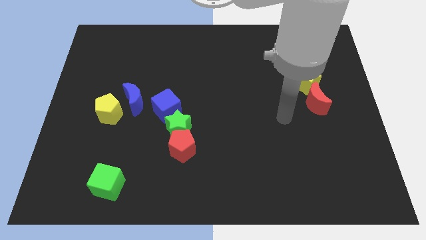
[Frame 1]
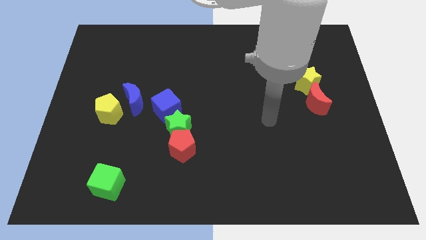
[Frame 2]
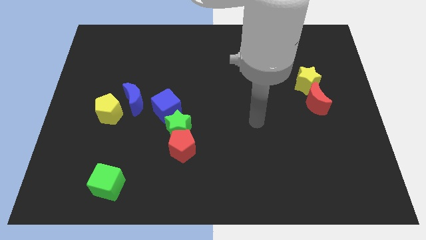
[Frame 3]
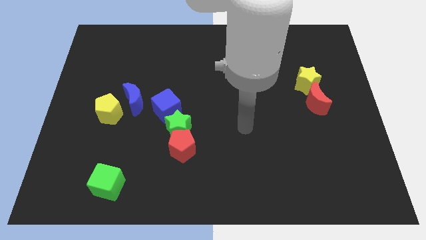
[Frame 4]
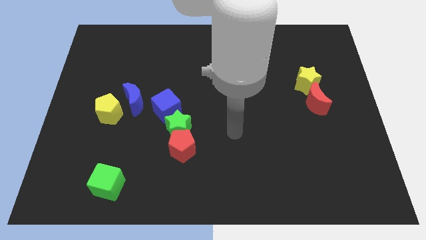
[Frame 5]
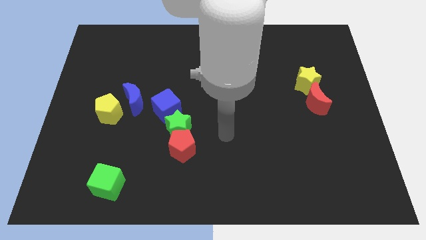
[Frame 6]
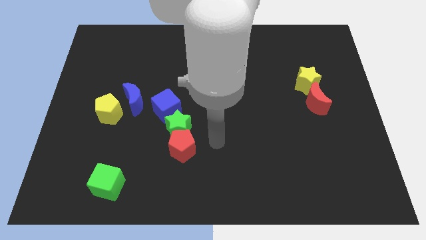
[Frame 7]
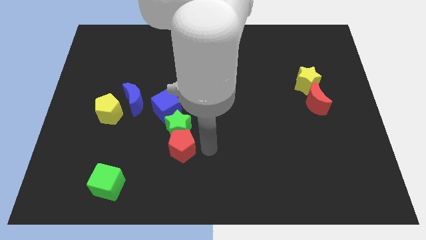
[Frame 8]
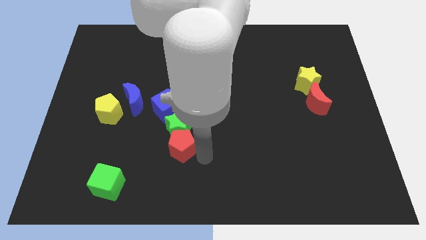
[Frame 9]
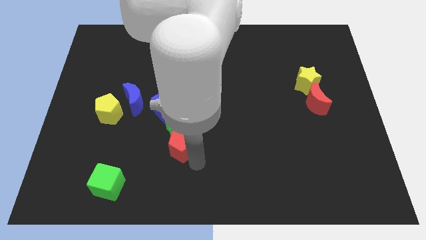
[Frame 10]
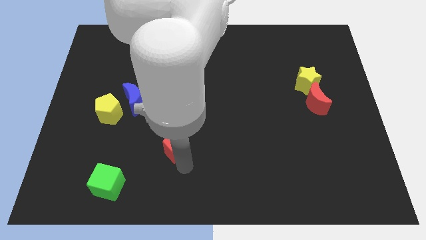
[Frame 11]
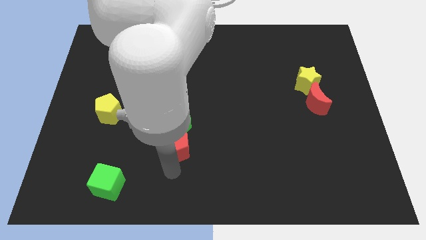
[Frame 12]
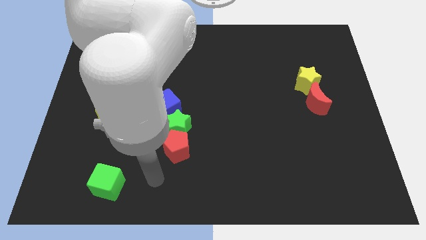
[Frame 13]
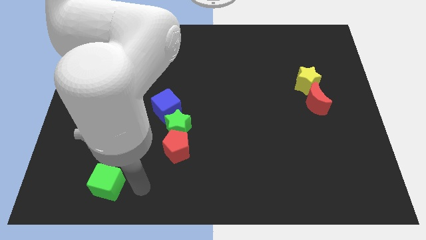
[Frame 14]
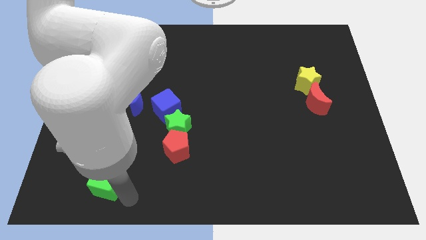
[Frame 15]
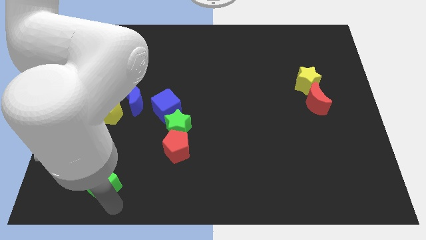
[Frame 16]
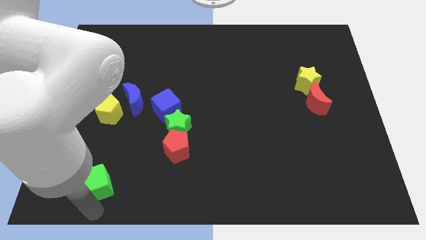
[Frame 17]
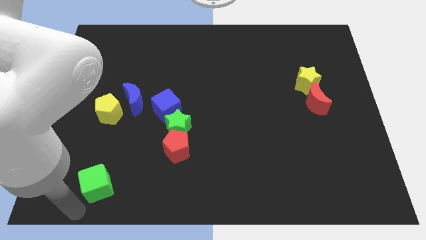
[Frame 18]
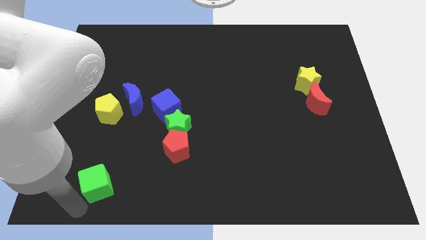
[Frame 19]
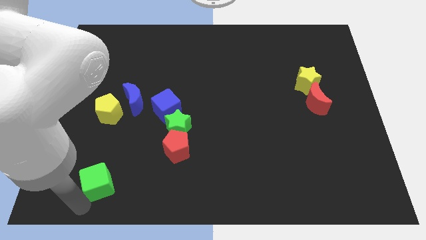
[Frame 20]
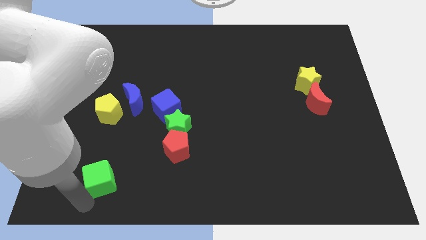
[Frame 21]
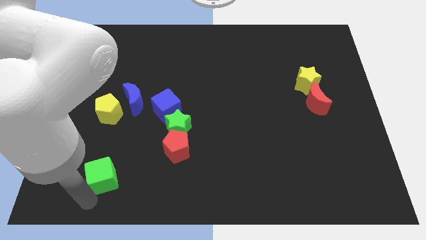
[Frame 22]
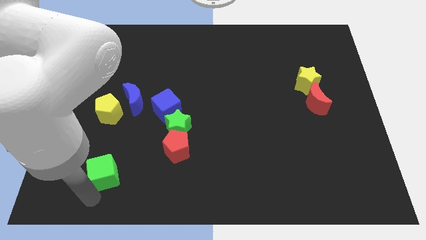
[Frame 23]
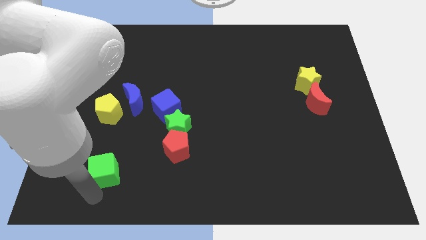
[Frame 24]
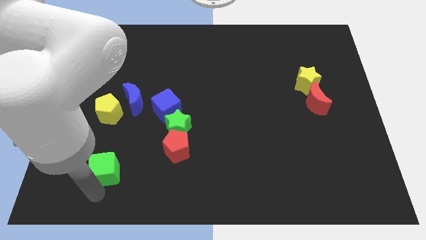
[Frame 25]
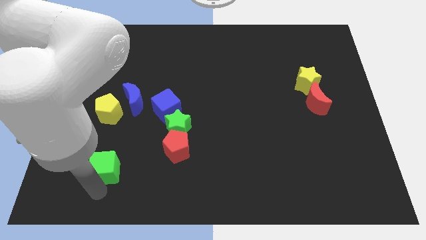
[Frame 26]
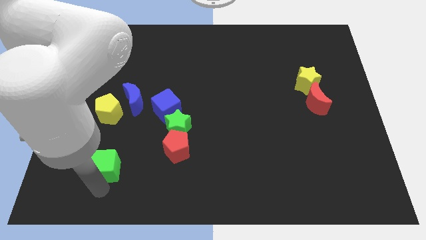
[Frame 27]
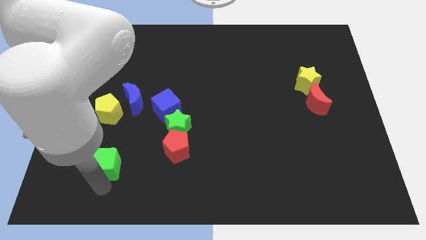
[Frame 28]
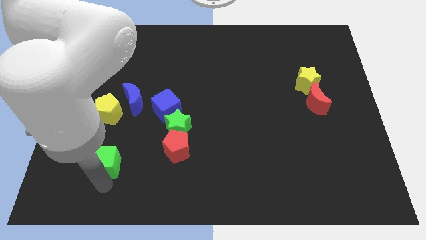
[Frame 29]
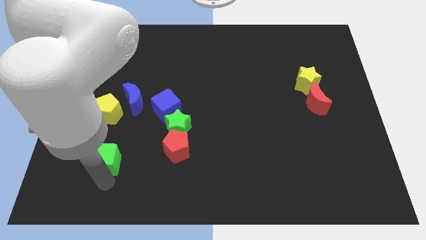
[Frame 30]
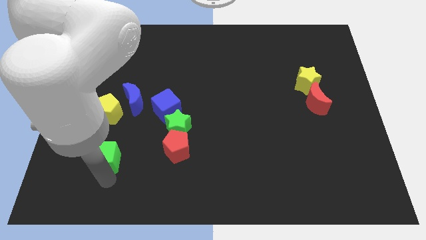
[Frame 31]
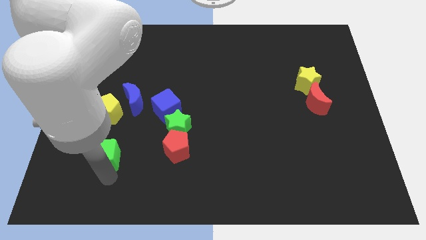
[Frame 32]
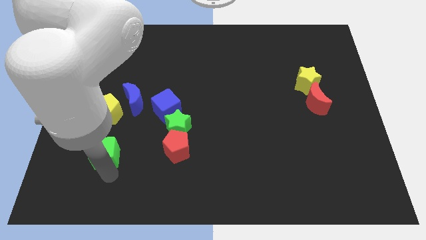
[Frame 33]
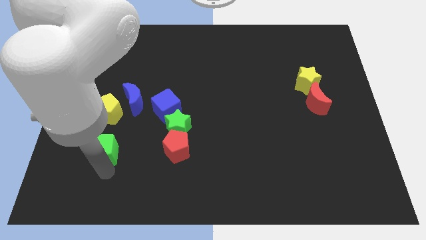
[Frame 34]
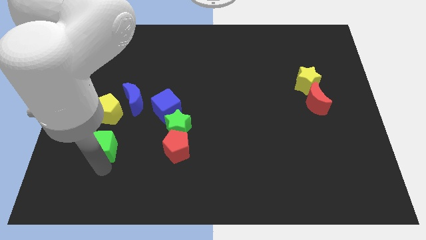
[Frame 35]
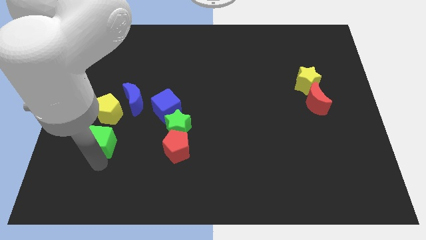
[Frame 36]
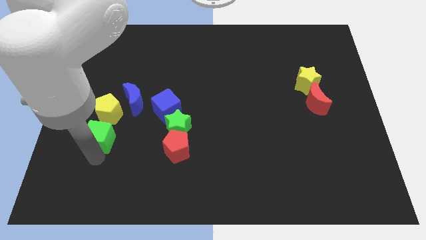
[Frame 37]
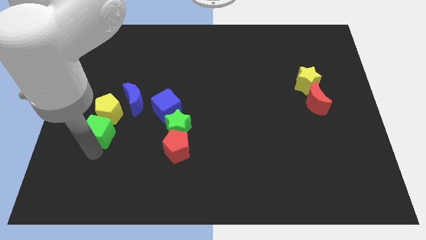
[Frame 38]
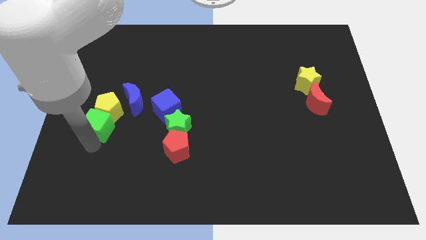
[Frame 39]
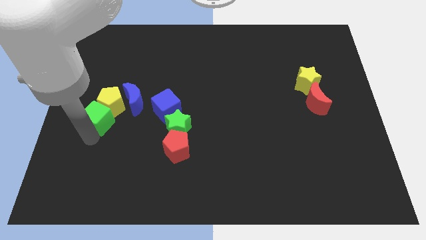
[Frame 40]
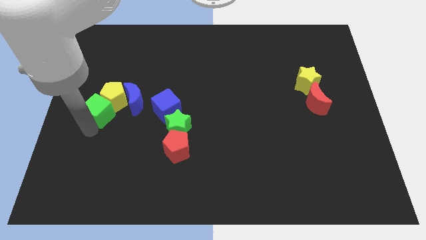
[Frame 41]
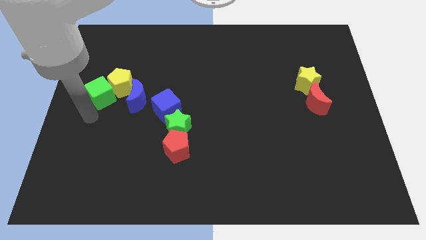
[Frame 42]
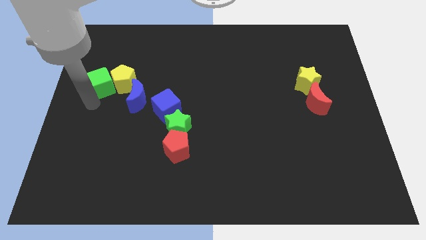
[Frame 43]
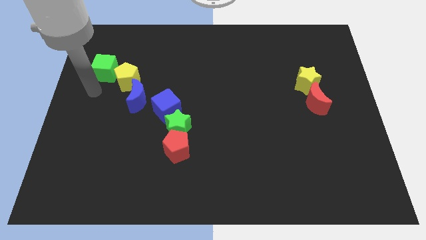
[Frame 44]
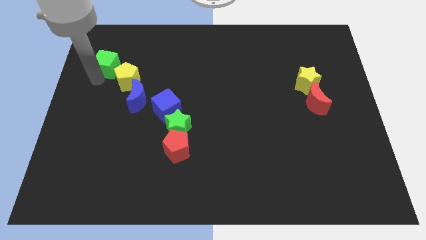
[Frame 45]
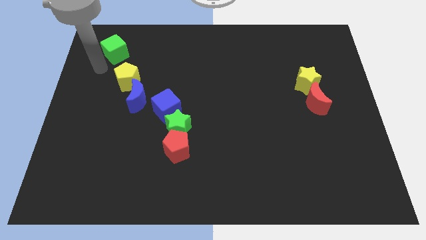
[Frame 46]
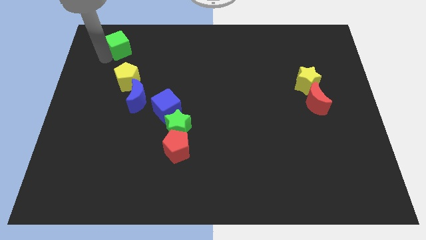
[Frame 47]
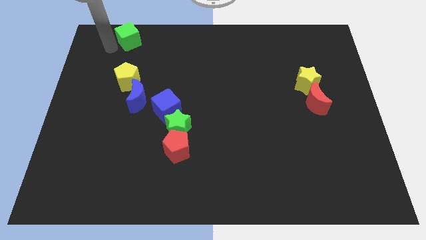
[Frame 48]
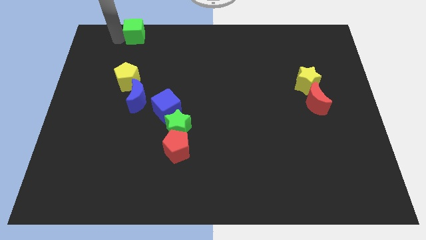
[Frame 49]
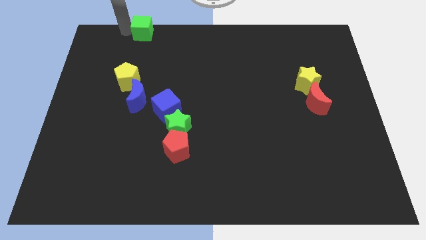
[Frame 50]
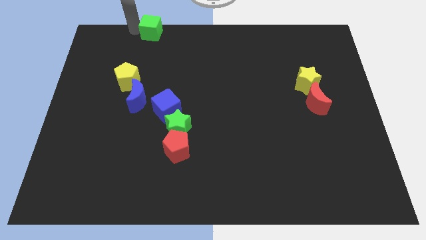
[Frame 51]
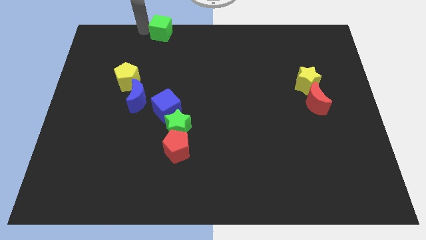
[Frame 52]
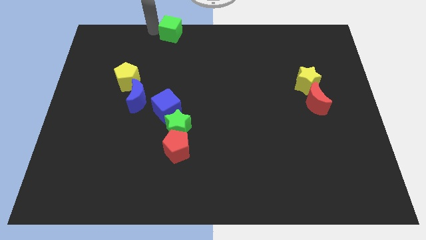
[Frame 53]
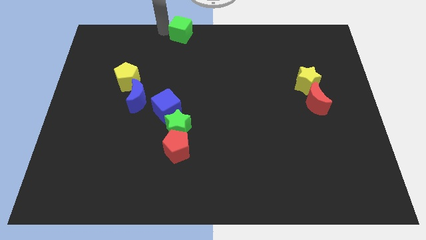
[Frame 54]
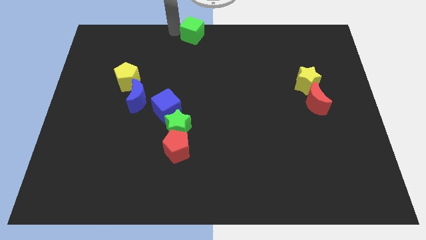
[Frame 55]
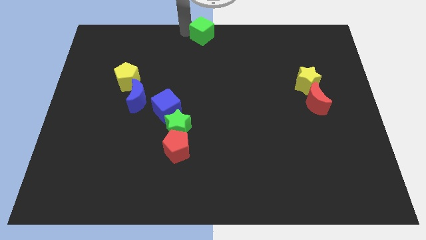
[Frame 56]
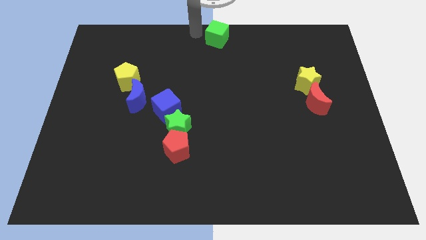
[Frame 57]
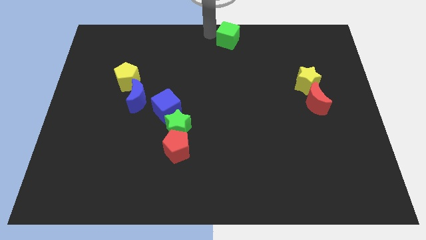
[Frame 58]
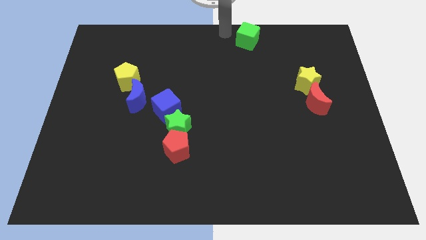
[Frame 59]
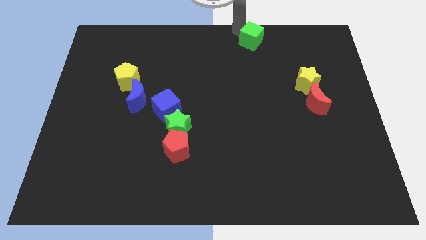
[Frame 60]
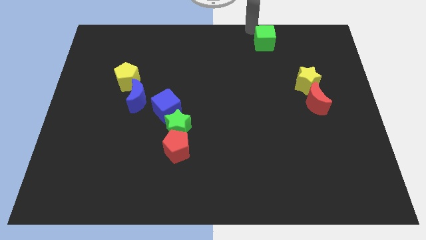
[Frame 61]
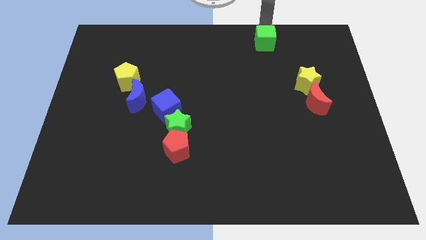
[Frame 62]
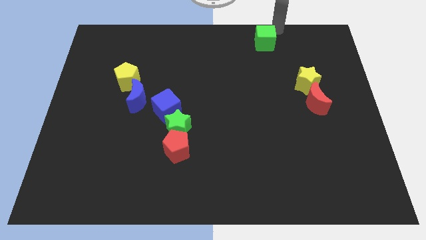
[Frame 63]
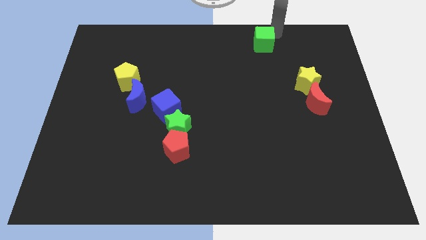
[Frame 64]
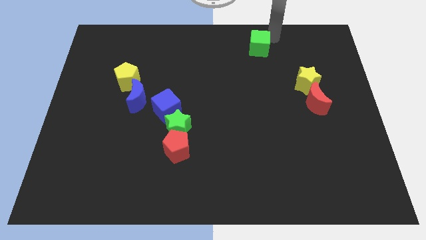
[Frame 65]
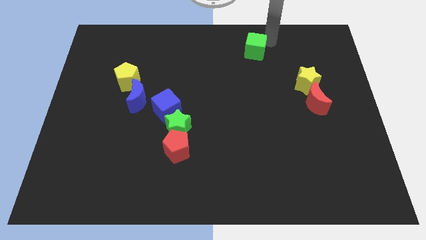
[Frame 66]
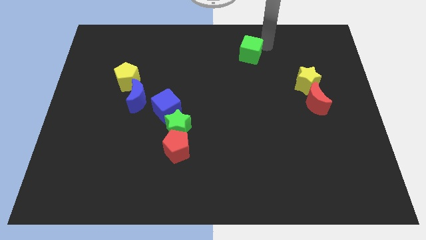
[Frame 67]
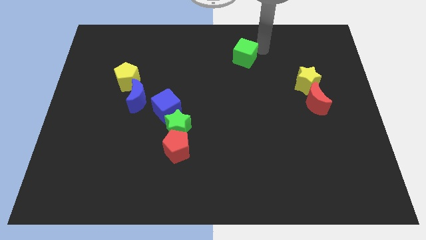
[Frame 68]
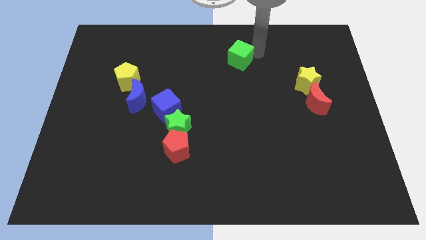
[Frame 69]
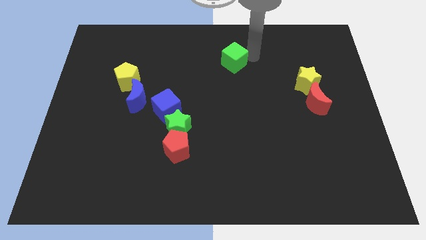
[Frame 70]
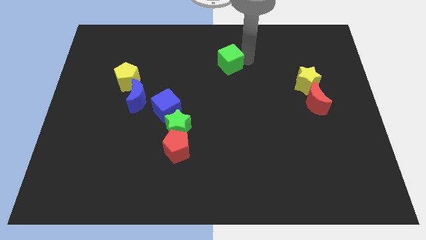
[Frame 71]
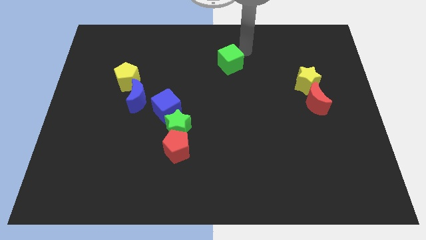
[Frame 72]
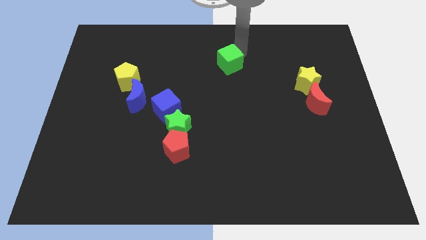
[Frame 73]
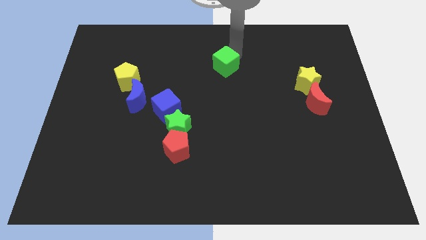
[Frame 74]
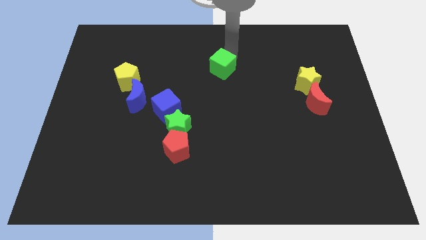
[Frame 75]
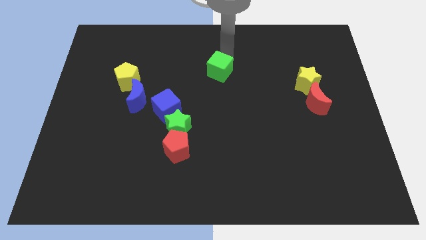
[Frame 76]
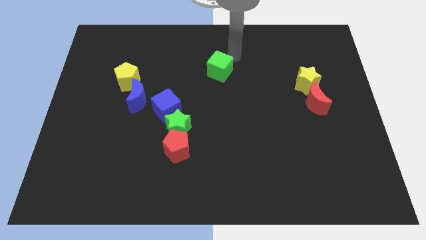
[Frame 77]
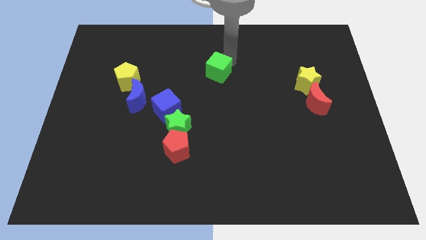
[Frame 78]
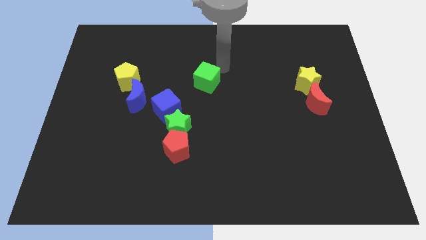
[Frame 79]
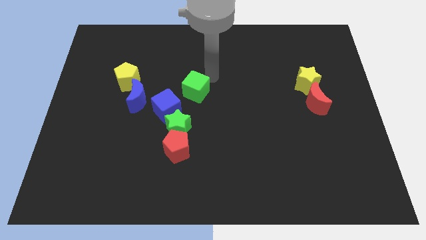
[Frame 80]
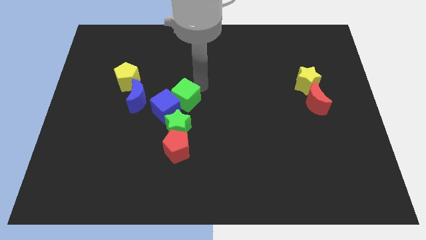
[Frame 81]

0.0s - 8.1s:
put the green cube to the blue cube
